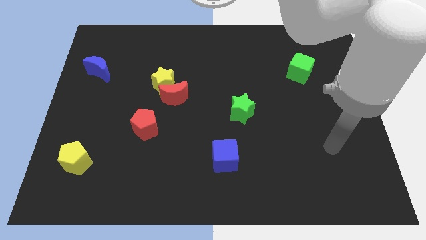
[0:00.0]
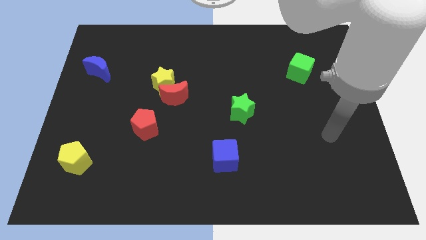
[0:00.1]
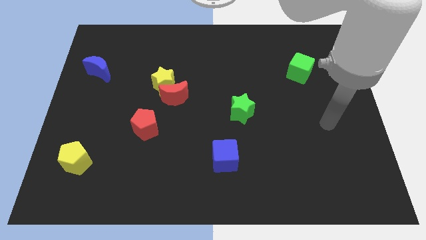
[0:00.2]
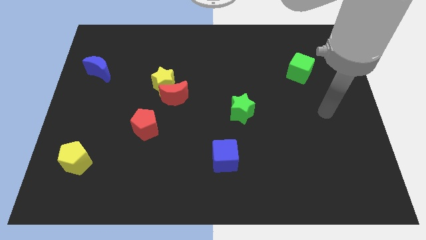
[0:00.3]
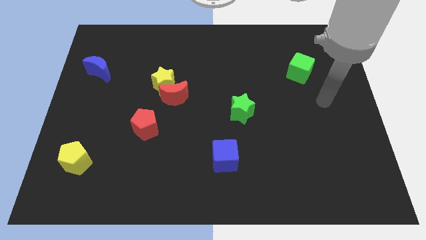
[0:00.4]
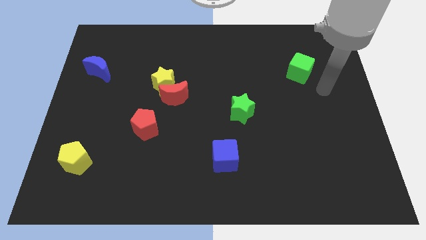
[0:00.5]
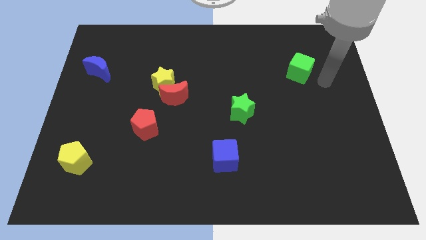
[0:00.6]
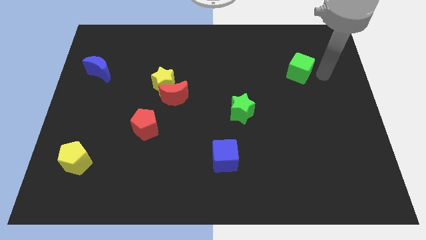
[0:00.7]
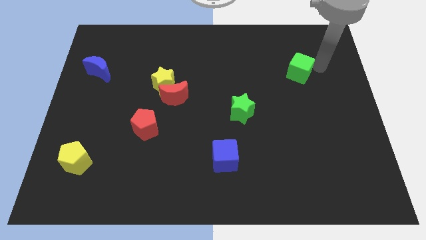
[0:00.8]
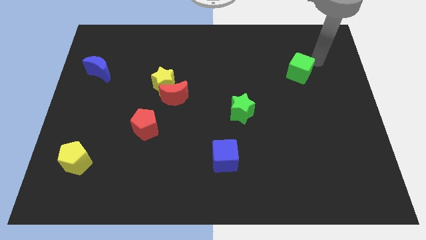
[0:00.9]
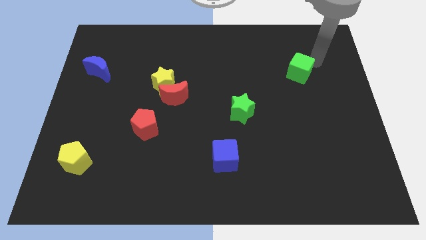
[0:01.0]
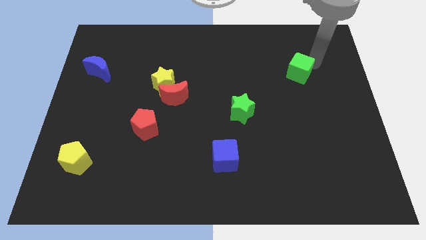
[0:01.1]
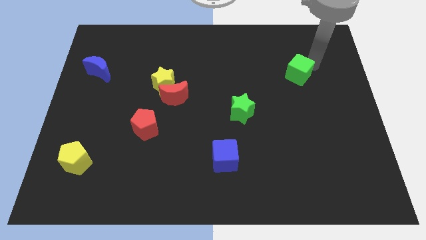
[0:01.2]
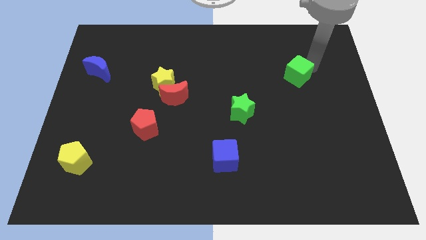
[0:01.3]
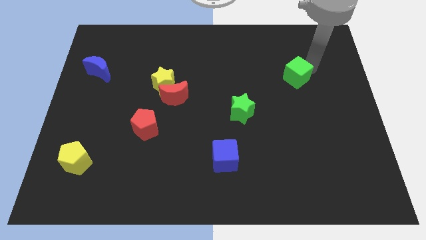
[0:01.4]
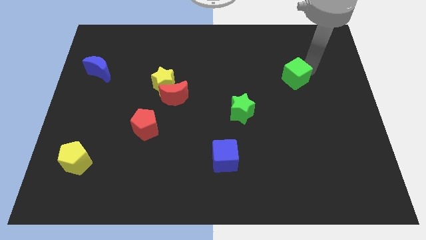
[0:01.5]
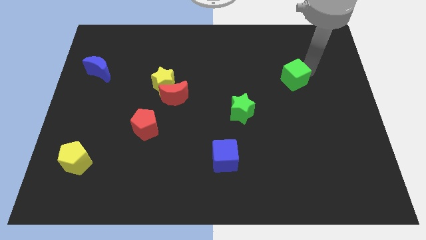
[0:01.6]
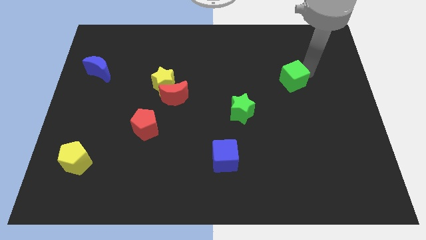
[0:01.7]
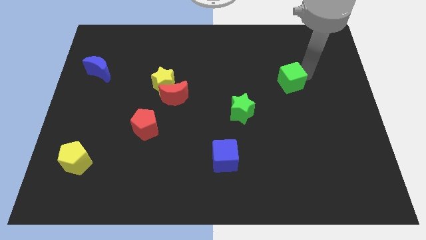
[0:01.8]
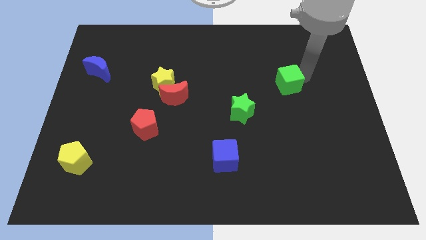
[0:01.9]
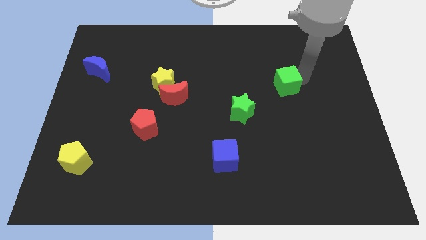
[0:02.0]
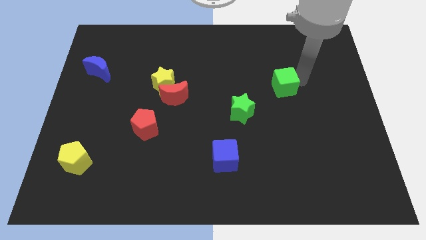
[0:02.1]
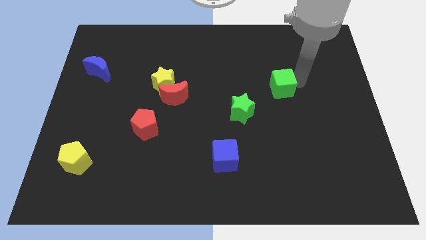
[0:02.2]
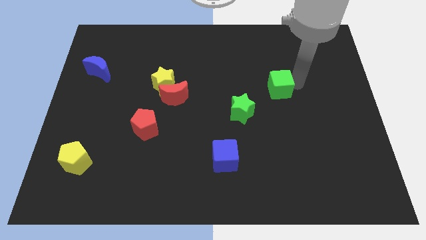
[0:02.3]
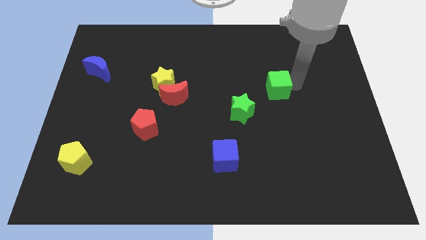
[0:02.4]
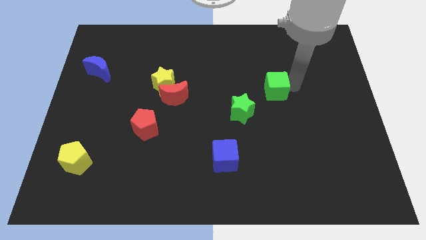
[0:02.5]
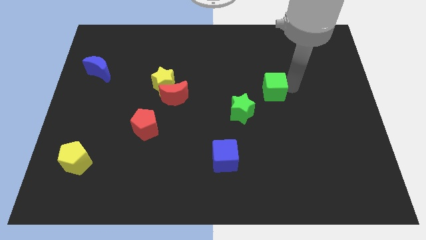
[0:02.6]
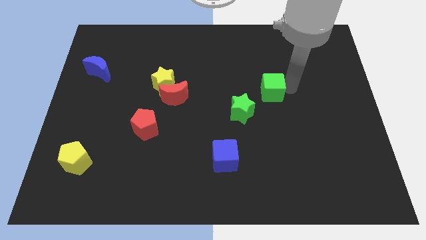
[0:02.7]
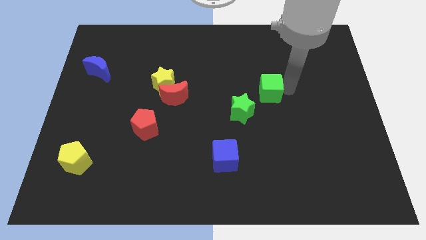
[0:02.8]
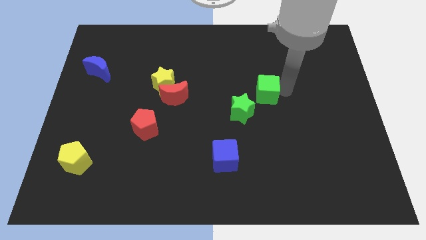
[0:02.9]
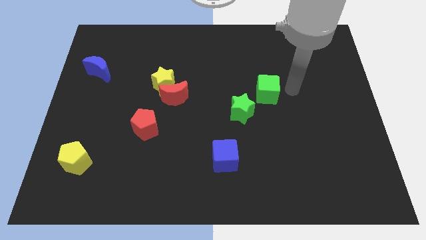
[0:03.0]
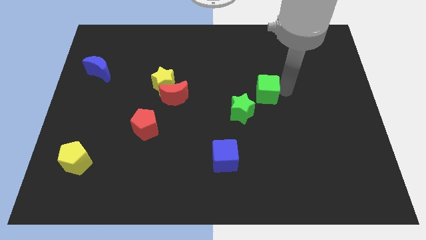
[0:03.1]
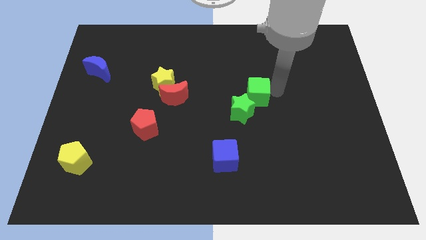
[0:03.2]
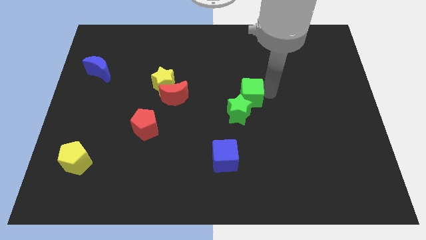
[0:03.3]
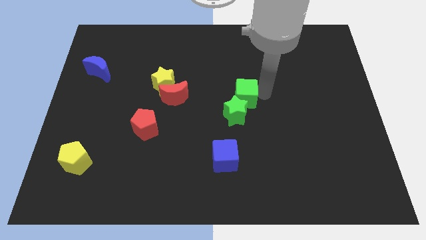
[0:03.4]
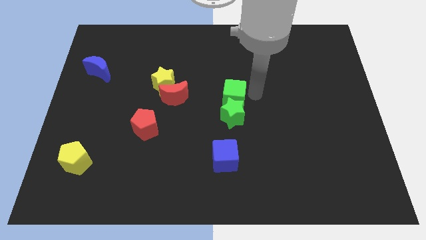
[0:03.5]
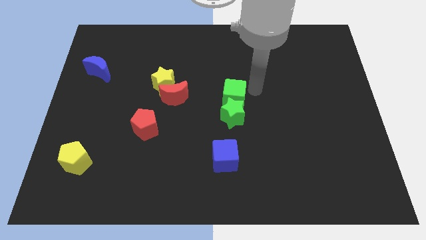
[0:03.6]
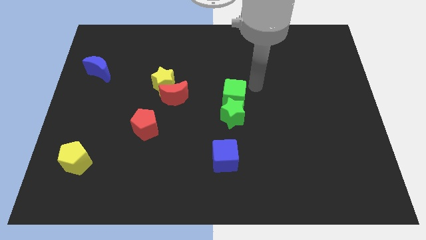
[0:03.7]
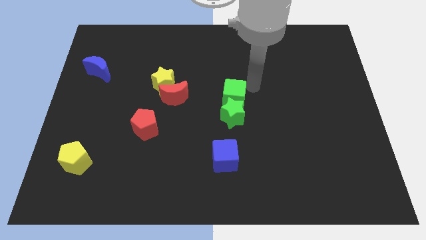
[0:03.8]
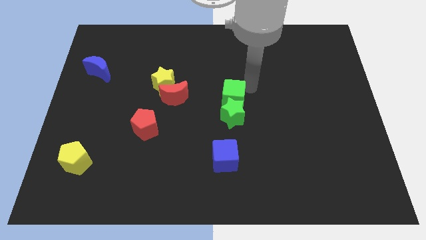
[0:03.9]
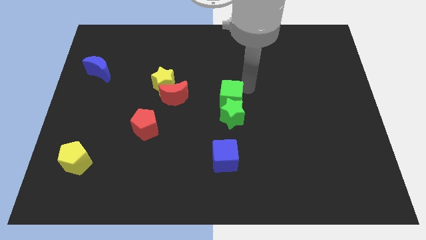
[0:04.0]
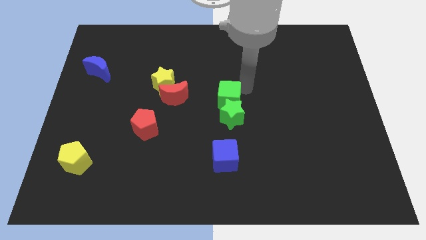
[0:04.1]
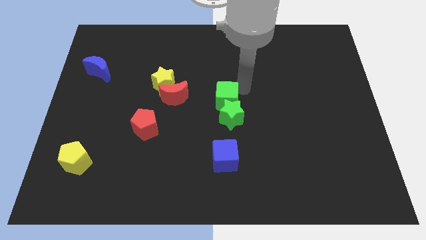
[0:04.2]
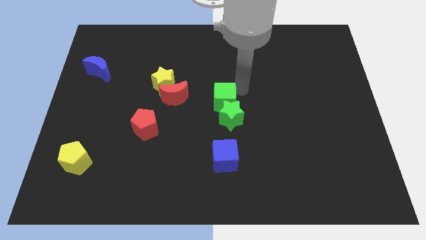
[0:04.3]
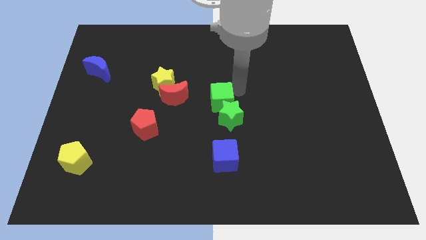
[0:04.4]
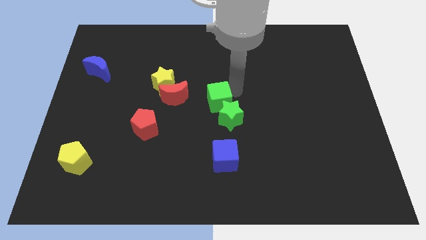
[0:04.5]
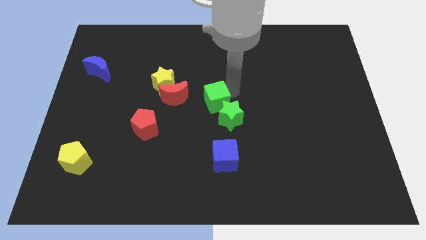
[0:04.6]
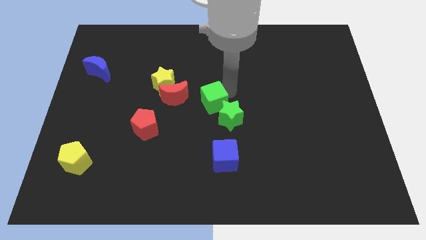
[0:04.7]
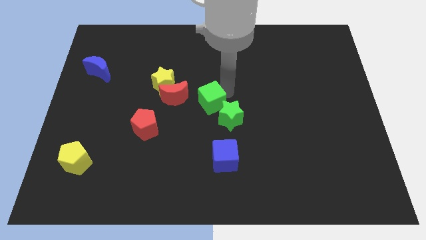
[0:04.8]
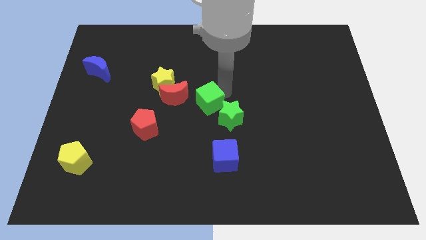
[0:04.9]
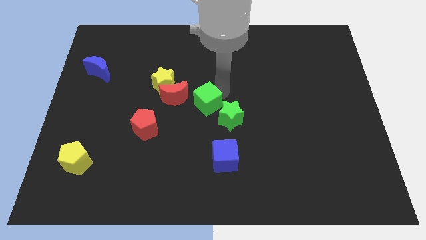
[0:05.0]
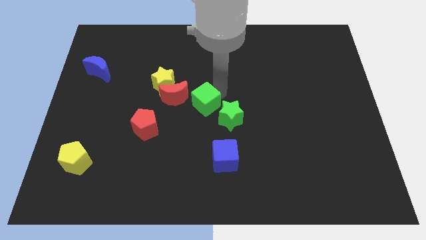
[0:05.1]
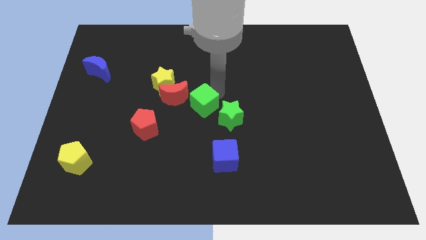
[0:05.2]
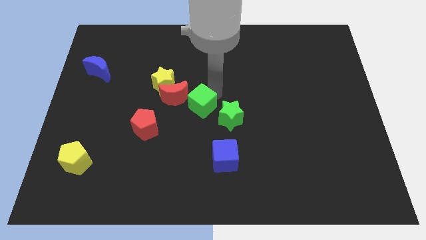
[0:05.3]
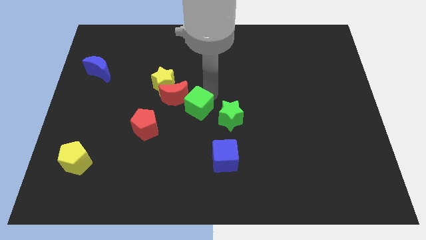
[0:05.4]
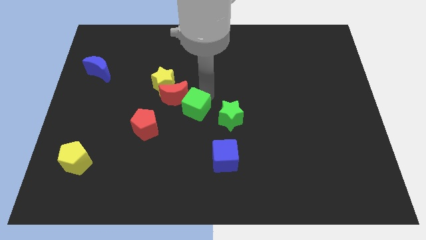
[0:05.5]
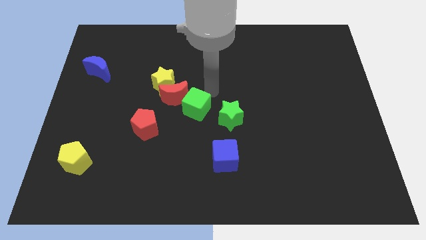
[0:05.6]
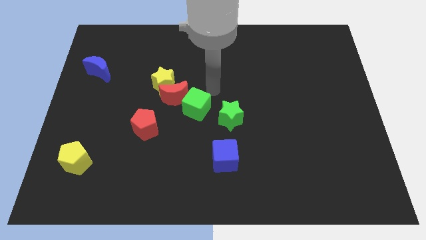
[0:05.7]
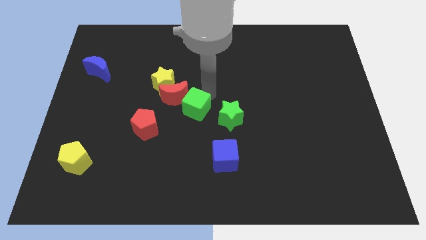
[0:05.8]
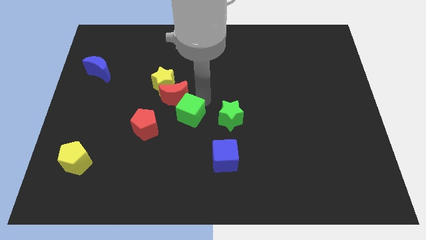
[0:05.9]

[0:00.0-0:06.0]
slide the green cube below the red moon

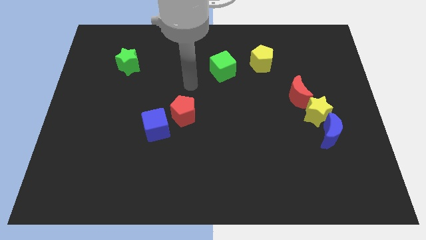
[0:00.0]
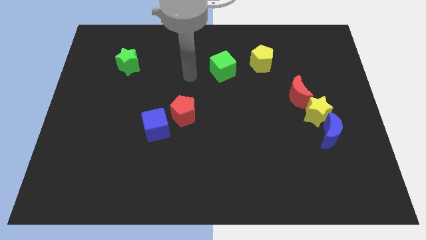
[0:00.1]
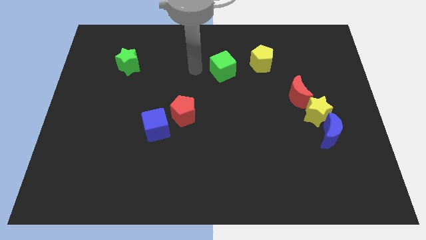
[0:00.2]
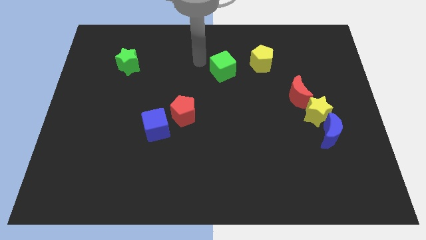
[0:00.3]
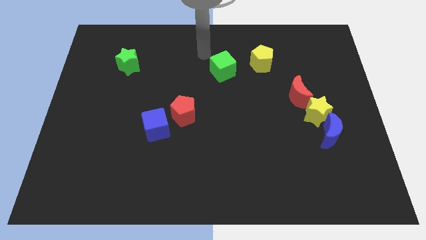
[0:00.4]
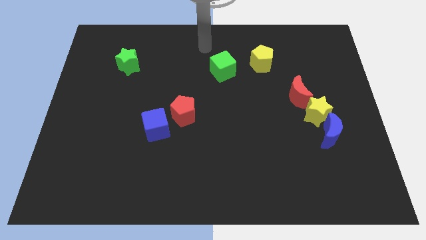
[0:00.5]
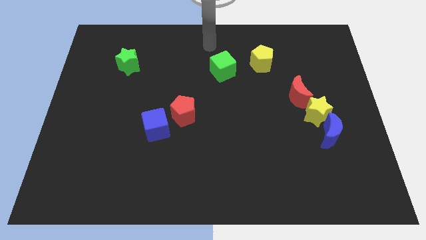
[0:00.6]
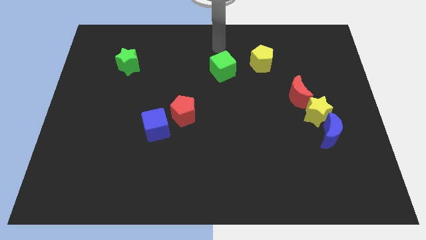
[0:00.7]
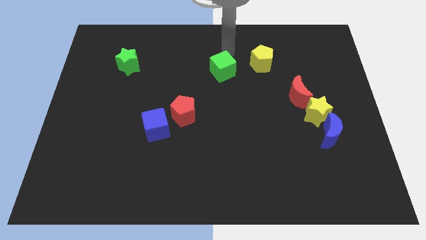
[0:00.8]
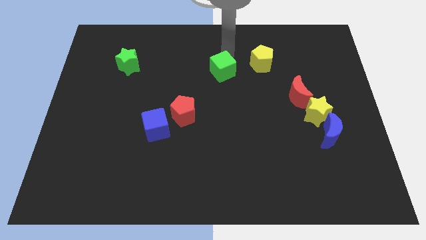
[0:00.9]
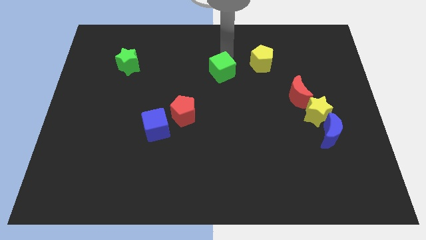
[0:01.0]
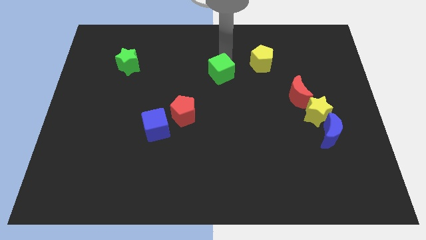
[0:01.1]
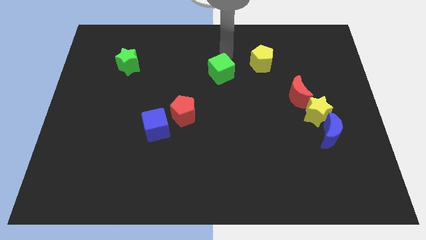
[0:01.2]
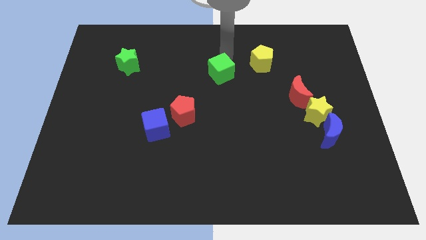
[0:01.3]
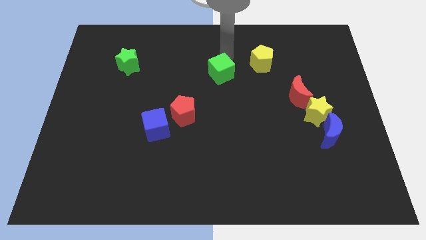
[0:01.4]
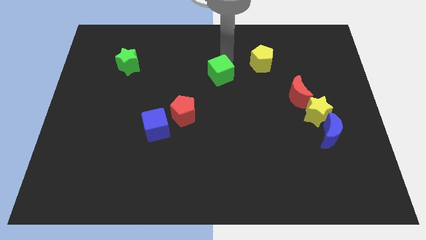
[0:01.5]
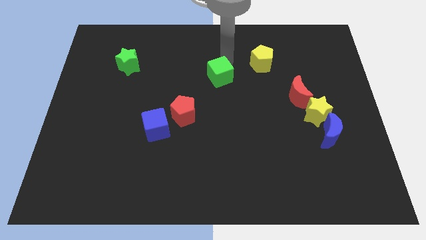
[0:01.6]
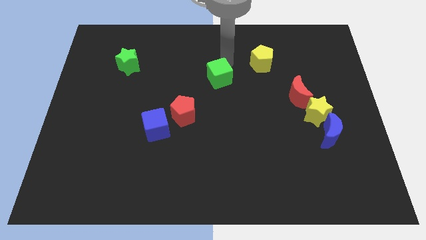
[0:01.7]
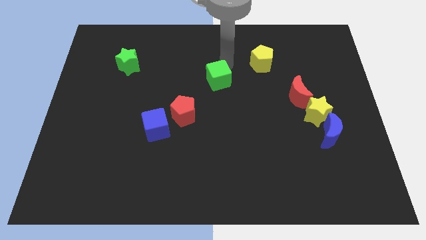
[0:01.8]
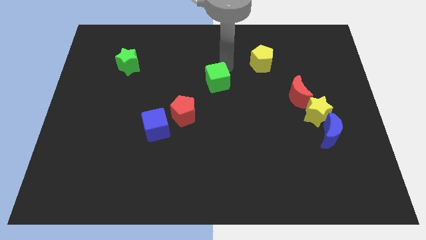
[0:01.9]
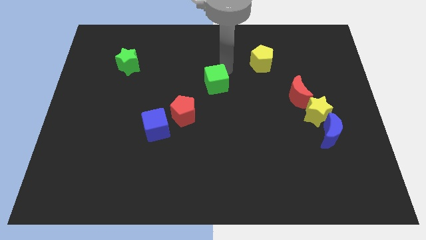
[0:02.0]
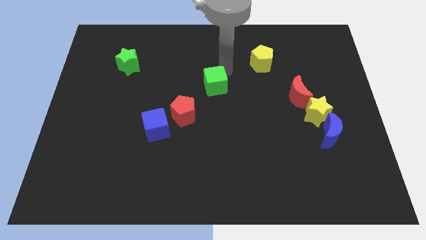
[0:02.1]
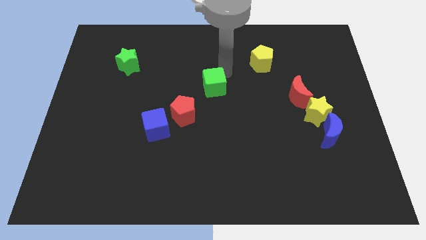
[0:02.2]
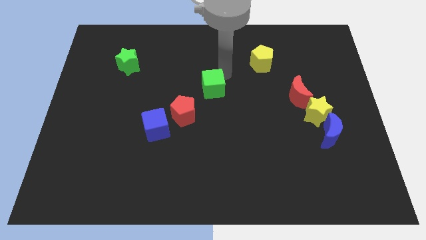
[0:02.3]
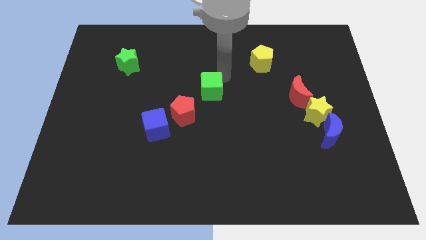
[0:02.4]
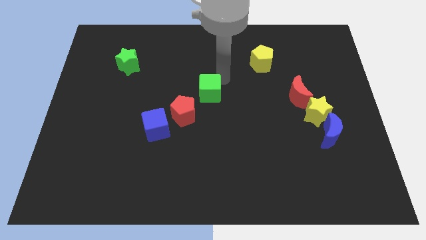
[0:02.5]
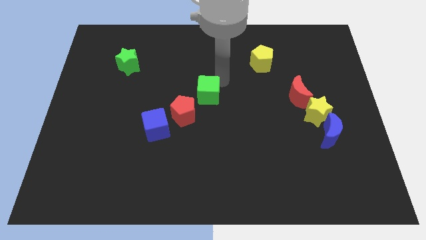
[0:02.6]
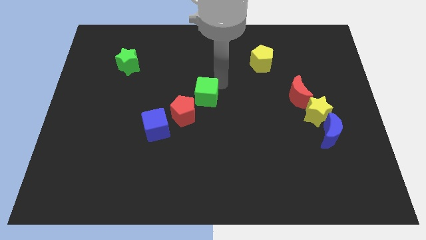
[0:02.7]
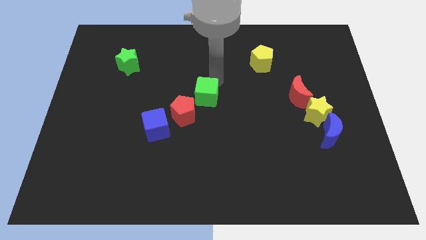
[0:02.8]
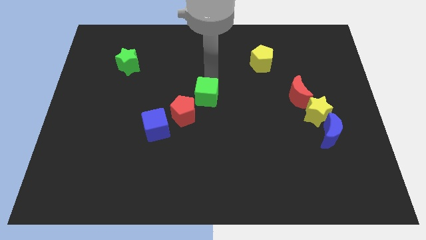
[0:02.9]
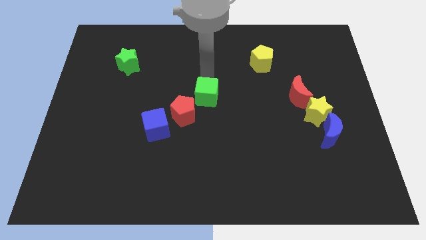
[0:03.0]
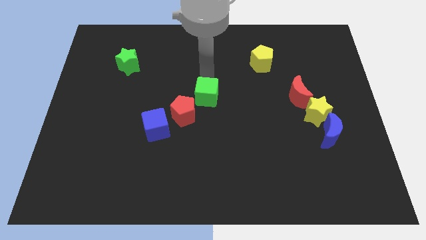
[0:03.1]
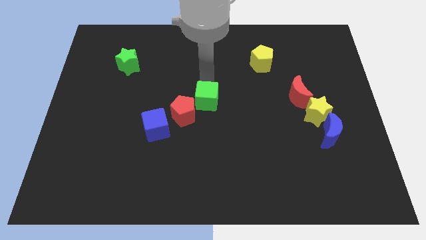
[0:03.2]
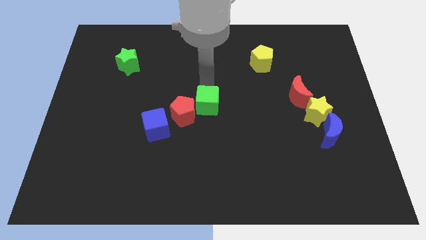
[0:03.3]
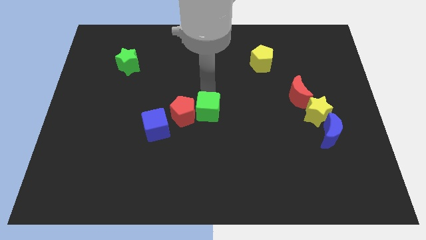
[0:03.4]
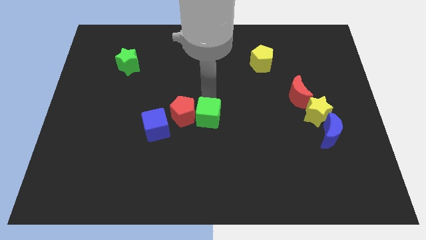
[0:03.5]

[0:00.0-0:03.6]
put the green cube right of the blue cube
